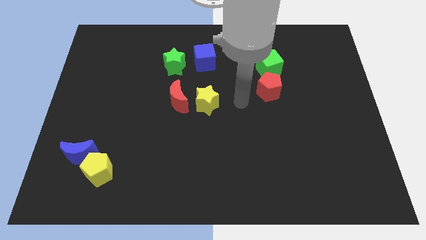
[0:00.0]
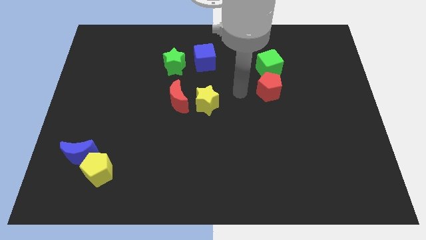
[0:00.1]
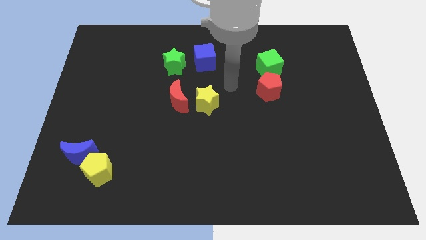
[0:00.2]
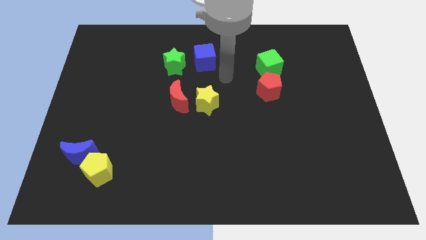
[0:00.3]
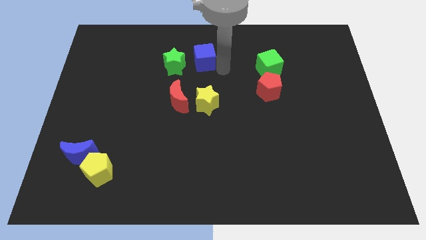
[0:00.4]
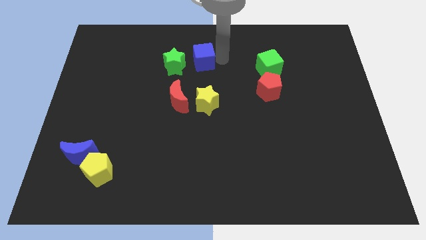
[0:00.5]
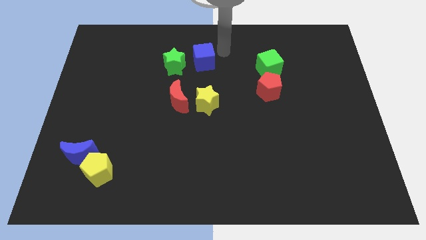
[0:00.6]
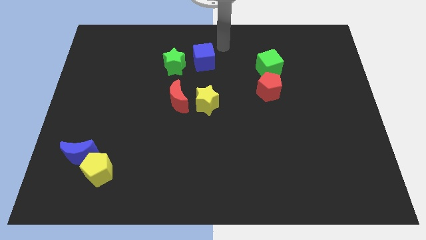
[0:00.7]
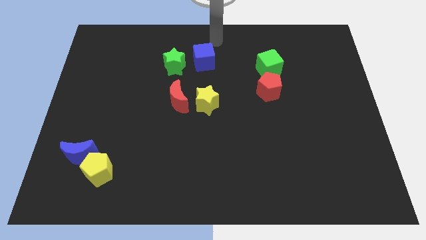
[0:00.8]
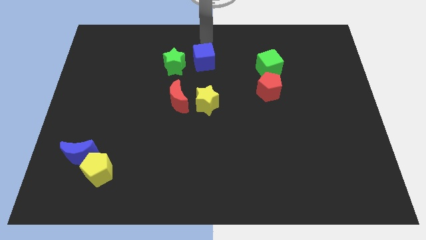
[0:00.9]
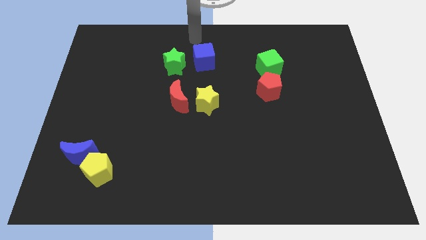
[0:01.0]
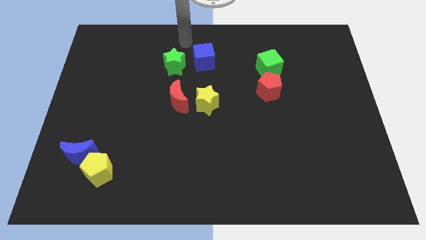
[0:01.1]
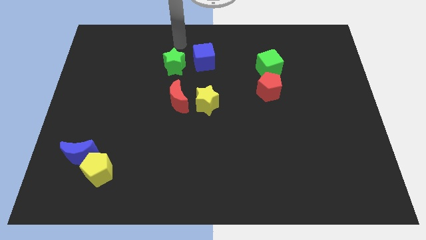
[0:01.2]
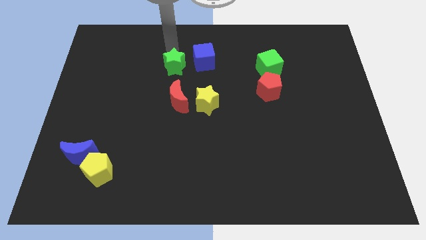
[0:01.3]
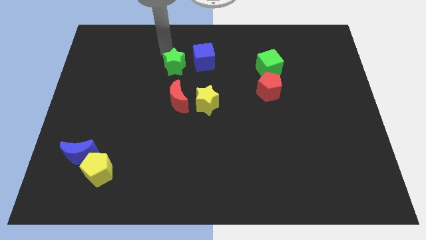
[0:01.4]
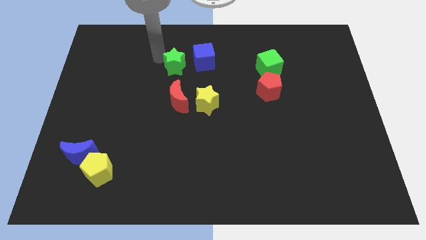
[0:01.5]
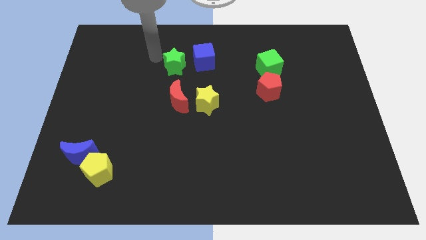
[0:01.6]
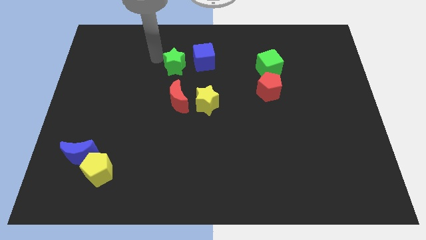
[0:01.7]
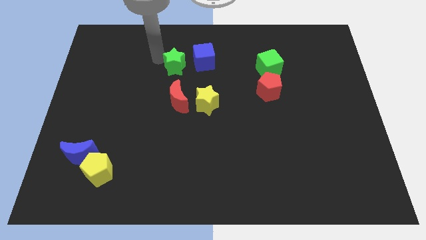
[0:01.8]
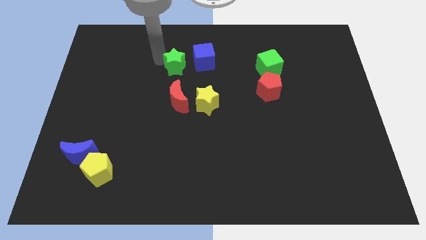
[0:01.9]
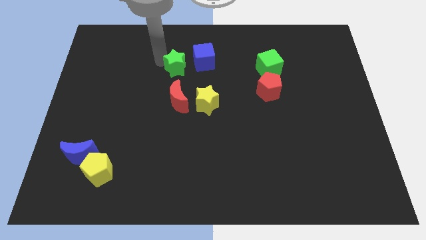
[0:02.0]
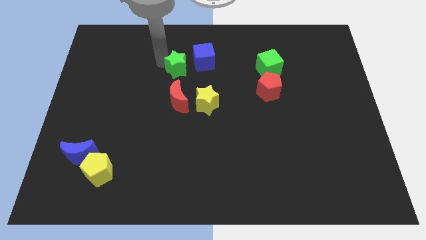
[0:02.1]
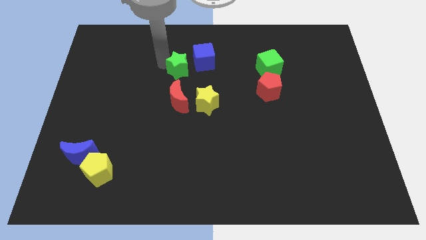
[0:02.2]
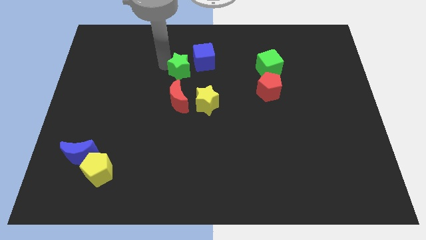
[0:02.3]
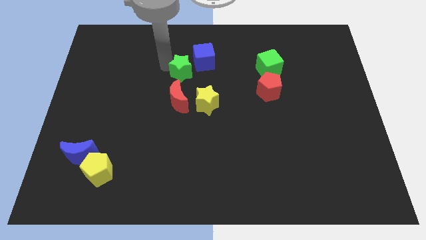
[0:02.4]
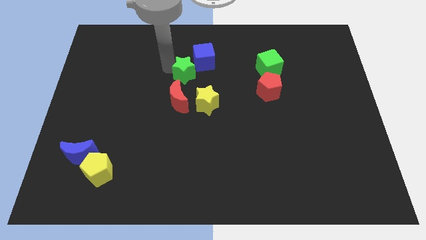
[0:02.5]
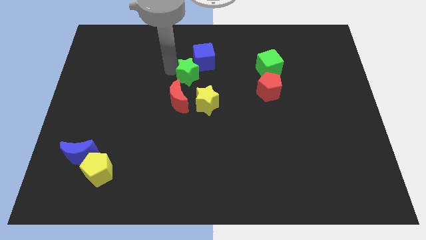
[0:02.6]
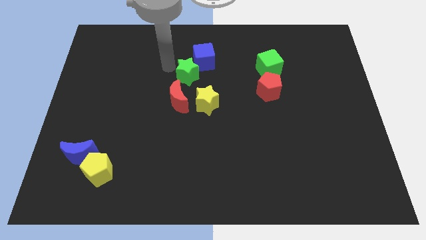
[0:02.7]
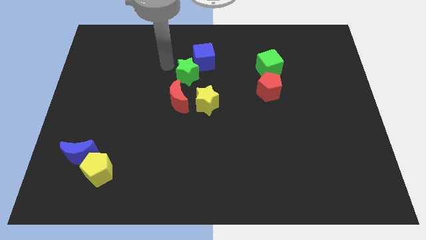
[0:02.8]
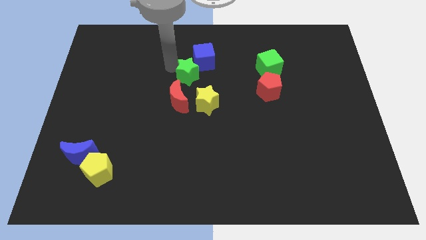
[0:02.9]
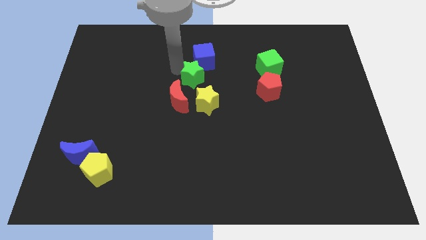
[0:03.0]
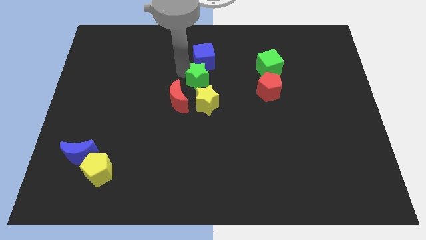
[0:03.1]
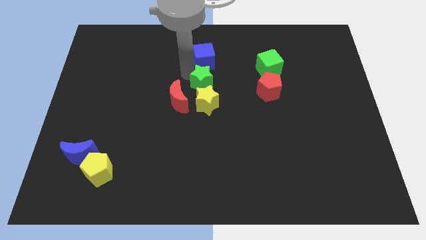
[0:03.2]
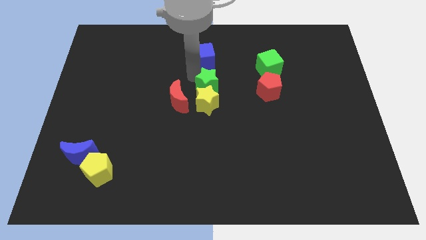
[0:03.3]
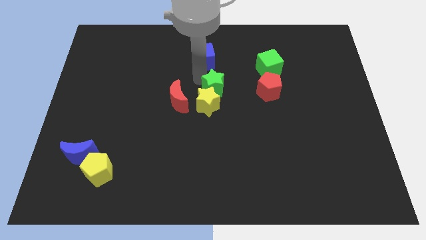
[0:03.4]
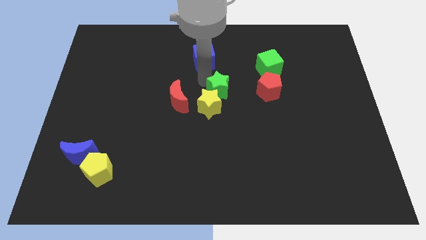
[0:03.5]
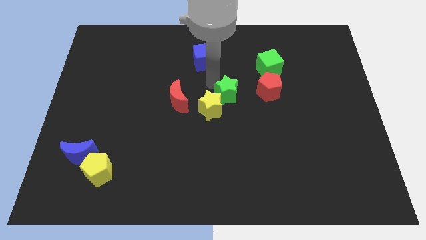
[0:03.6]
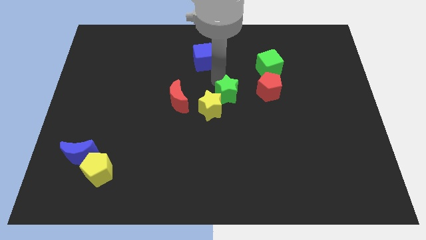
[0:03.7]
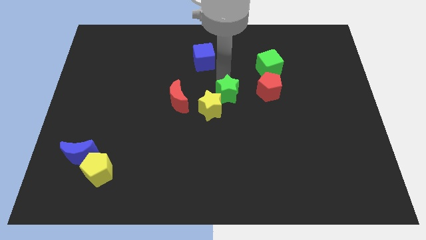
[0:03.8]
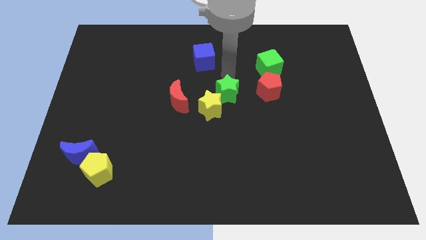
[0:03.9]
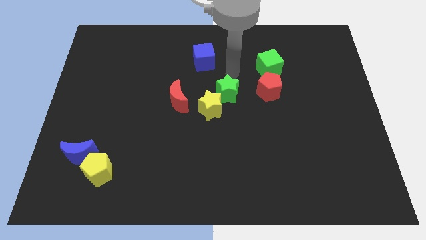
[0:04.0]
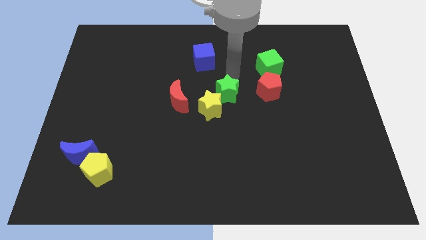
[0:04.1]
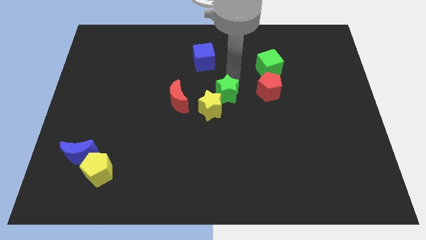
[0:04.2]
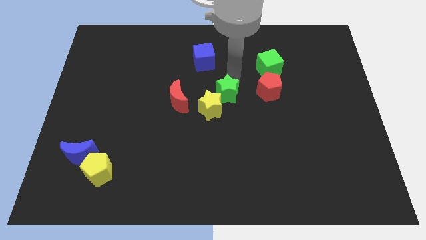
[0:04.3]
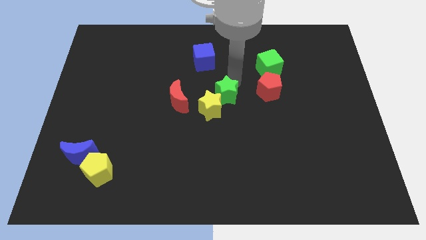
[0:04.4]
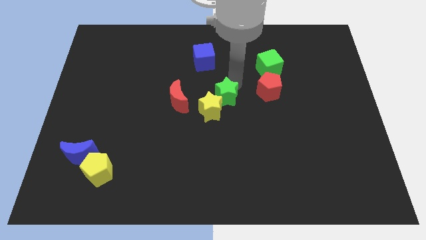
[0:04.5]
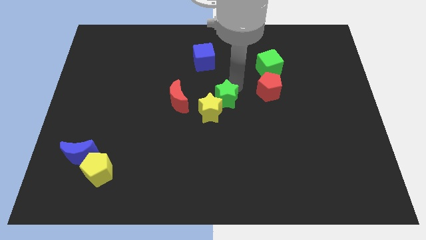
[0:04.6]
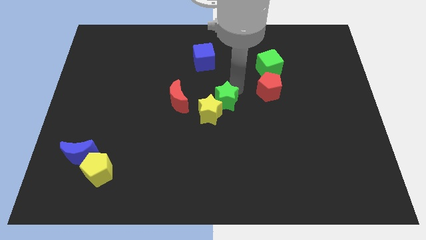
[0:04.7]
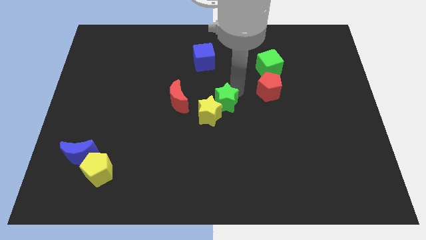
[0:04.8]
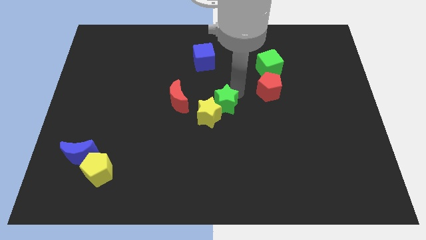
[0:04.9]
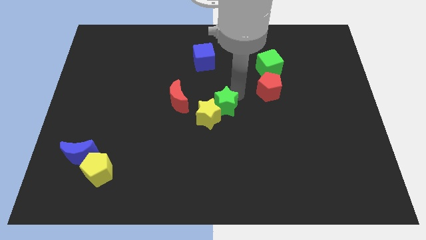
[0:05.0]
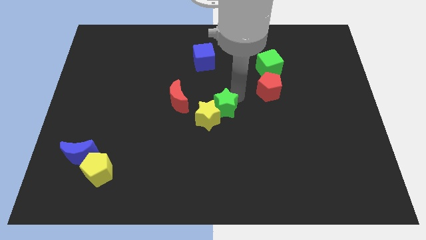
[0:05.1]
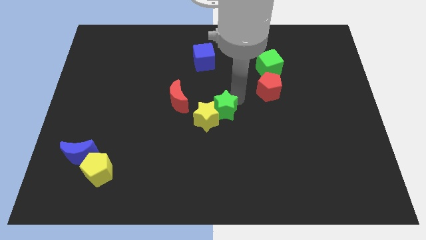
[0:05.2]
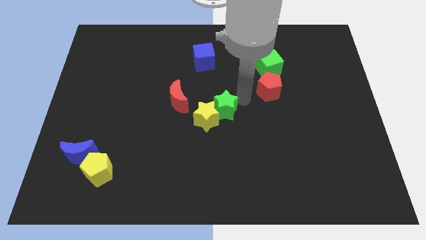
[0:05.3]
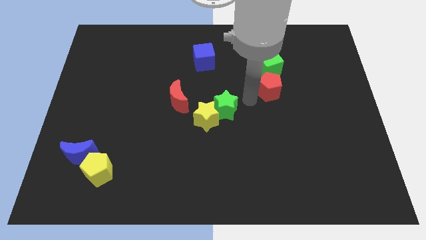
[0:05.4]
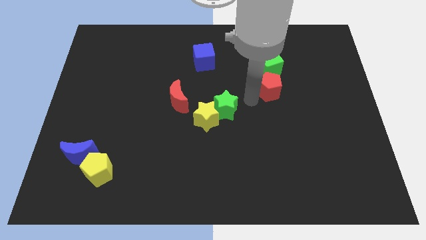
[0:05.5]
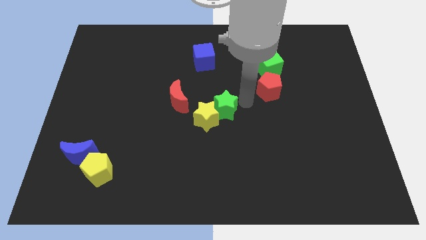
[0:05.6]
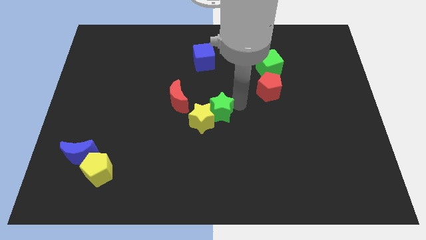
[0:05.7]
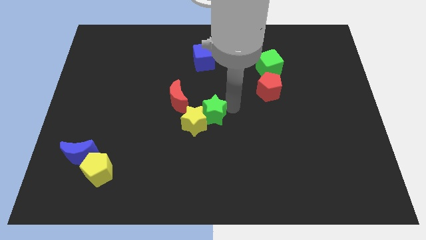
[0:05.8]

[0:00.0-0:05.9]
push the green star diagonally down and to the right of the red moon

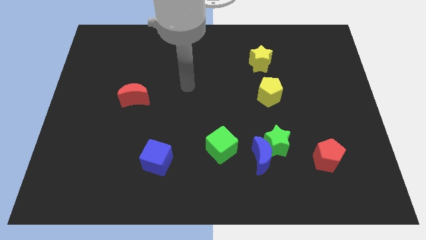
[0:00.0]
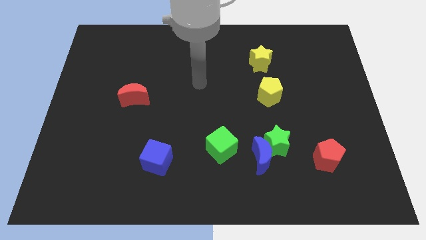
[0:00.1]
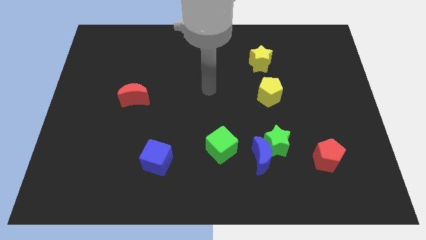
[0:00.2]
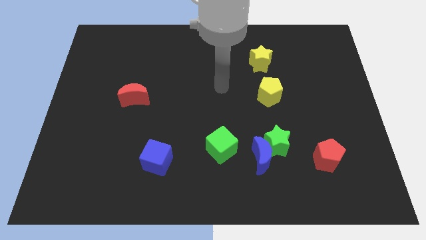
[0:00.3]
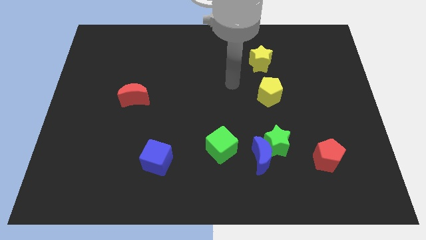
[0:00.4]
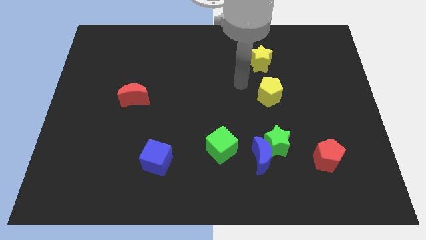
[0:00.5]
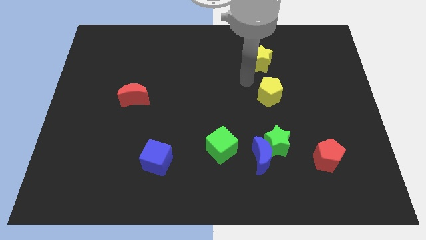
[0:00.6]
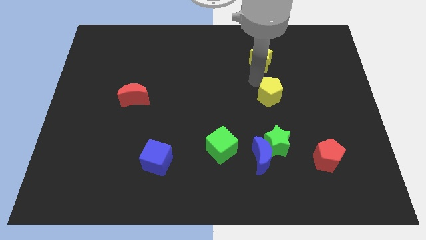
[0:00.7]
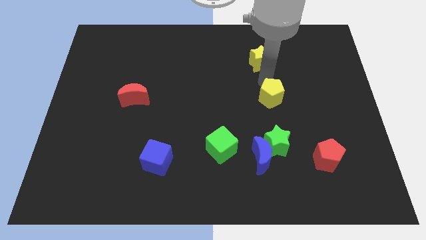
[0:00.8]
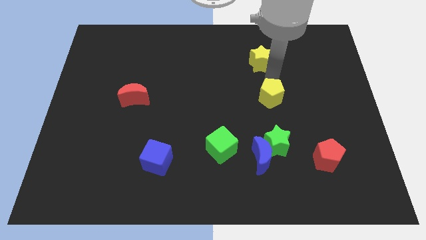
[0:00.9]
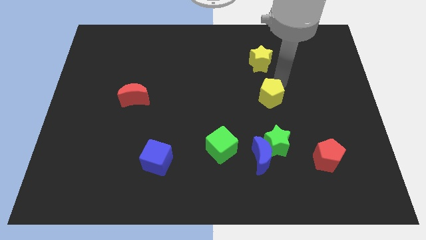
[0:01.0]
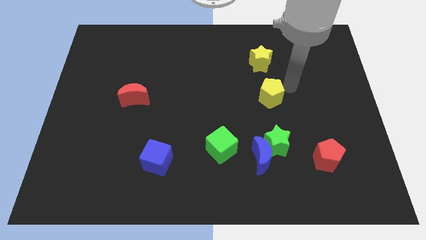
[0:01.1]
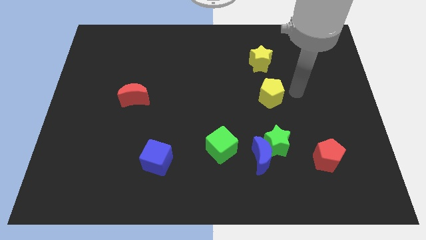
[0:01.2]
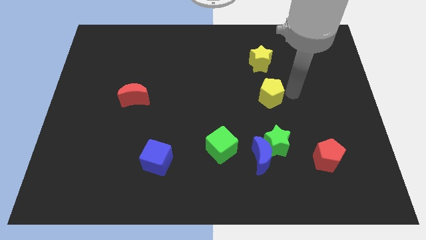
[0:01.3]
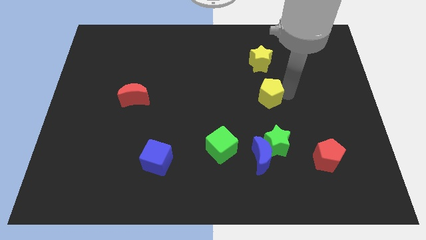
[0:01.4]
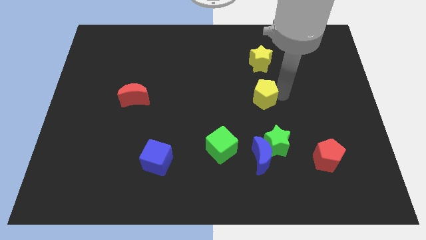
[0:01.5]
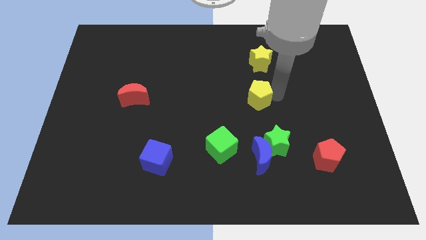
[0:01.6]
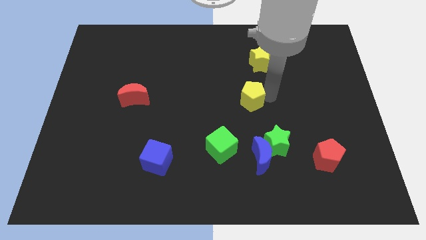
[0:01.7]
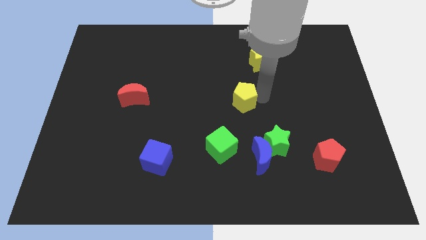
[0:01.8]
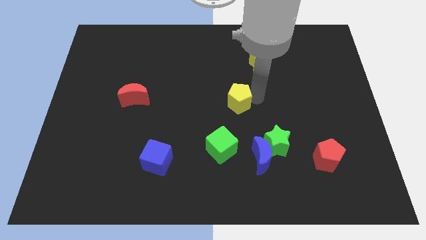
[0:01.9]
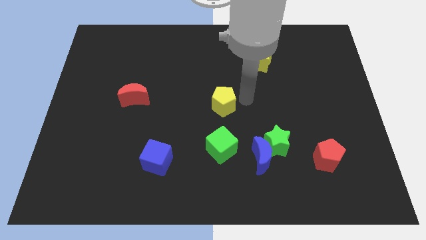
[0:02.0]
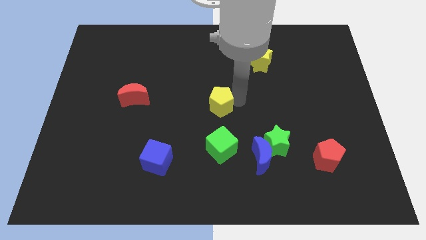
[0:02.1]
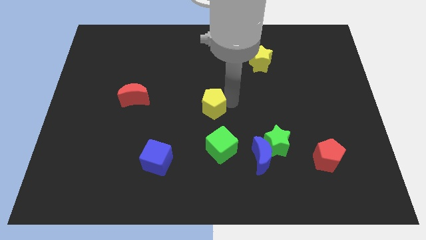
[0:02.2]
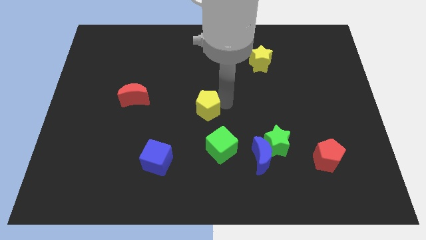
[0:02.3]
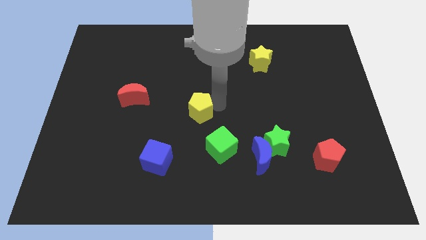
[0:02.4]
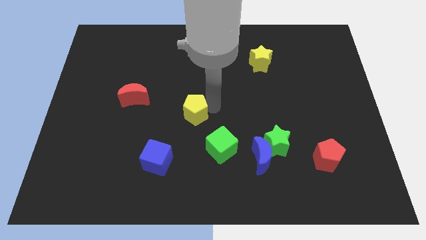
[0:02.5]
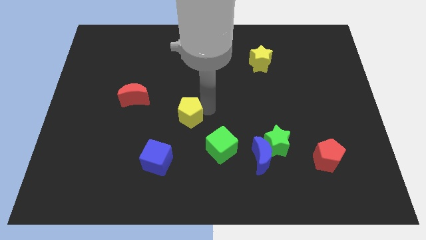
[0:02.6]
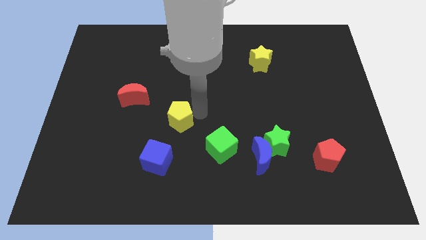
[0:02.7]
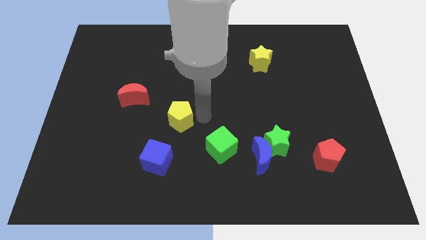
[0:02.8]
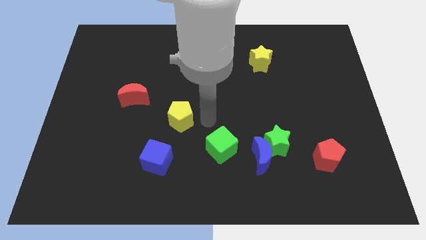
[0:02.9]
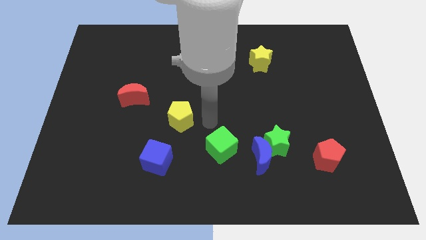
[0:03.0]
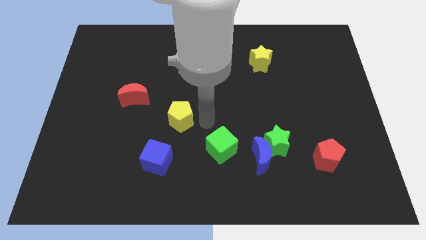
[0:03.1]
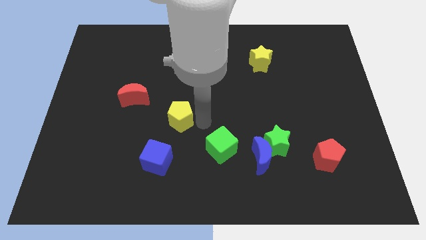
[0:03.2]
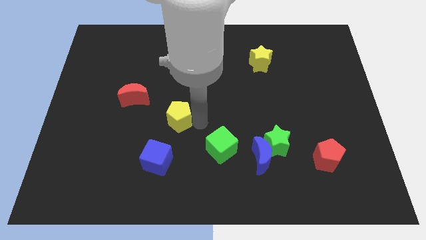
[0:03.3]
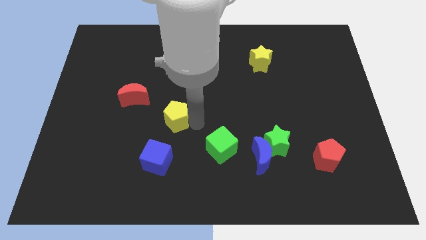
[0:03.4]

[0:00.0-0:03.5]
move the yellow pentagon diagonally down and to the right of the red moon
